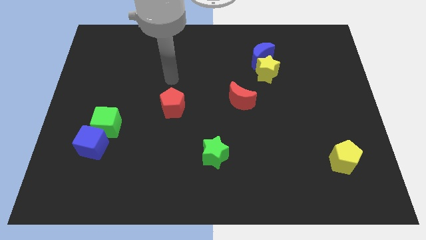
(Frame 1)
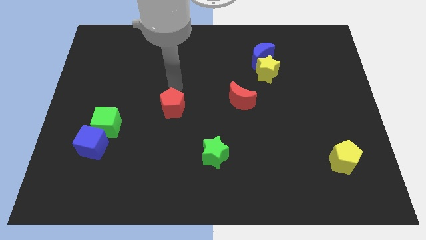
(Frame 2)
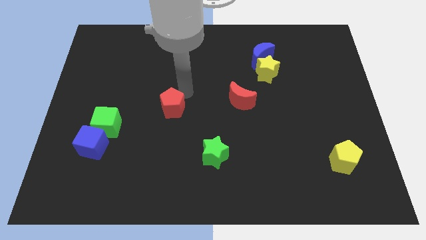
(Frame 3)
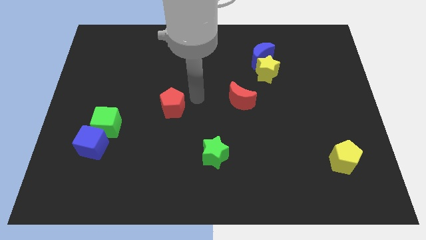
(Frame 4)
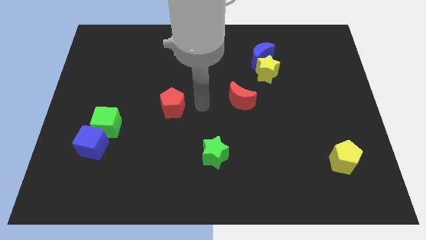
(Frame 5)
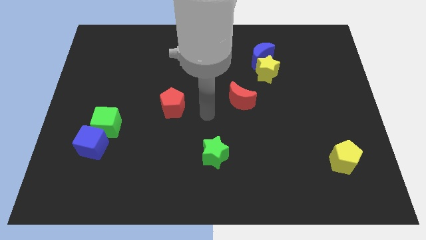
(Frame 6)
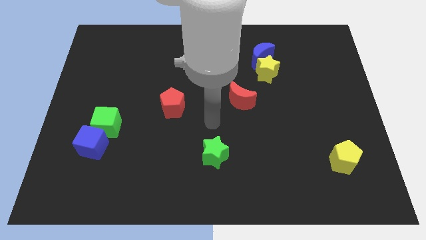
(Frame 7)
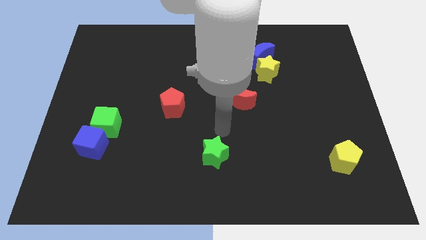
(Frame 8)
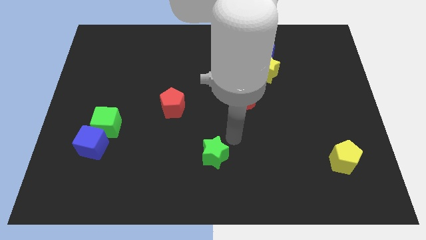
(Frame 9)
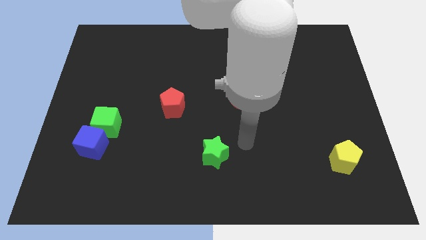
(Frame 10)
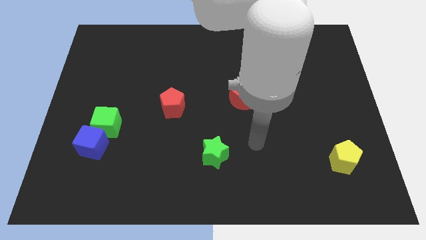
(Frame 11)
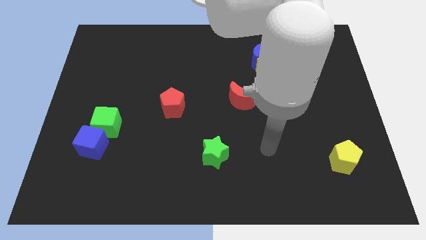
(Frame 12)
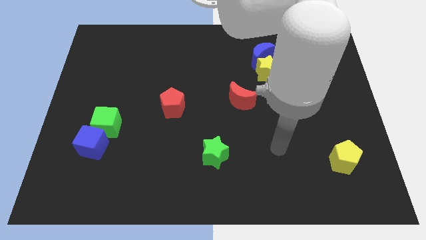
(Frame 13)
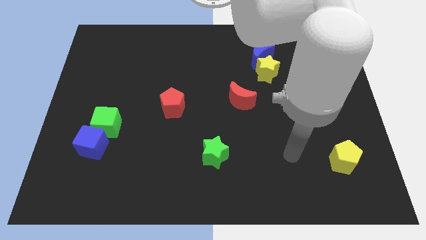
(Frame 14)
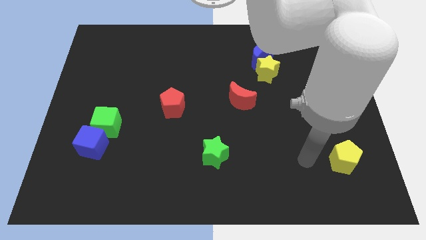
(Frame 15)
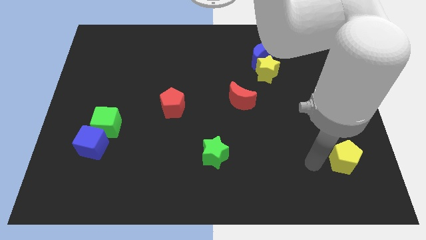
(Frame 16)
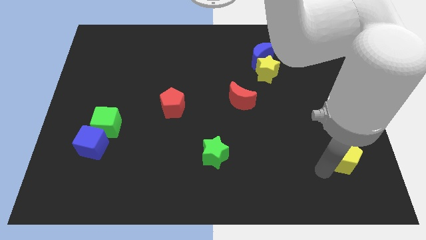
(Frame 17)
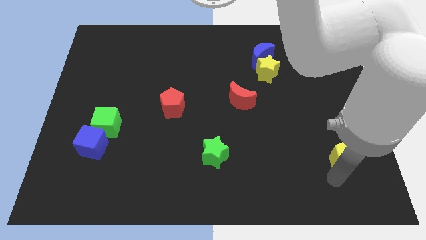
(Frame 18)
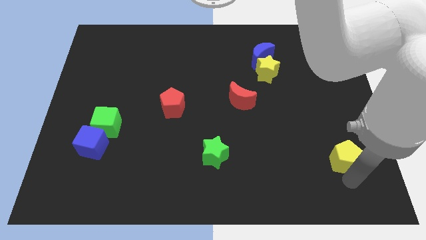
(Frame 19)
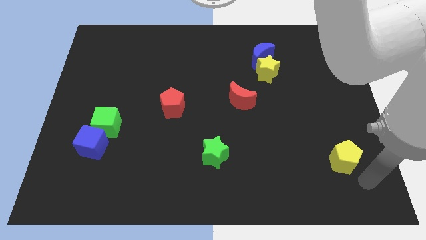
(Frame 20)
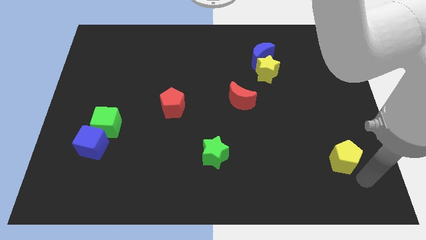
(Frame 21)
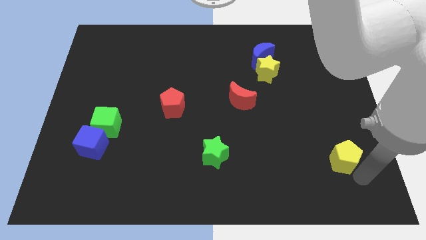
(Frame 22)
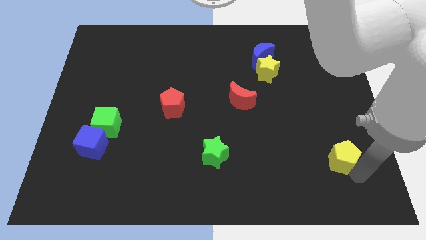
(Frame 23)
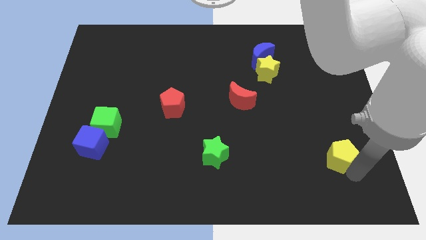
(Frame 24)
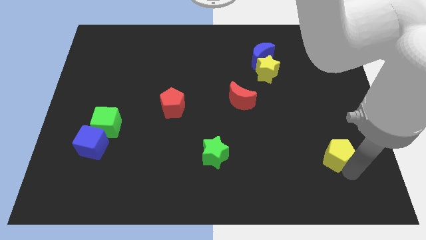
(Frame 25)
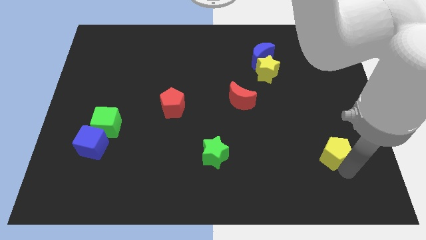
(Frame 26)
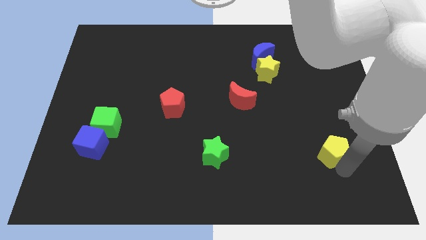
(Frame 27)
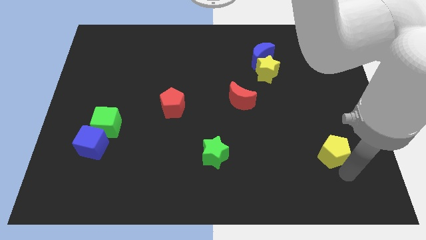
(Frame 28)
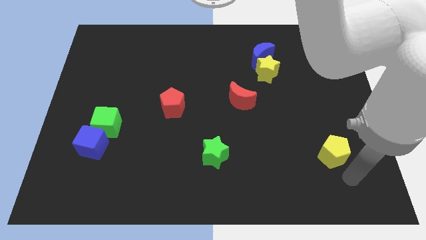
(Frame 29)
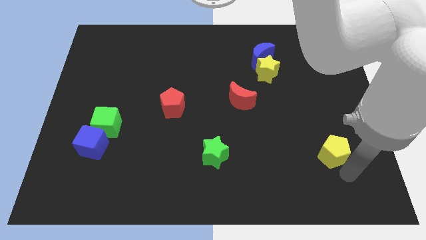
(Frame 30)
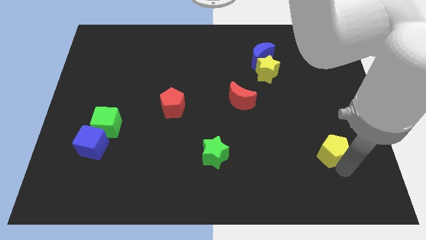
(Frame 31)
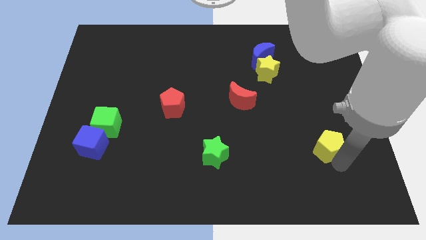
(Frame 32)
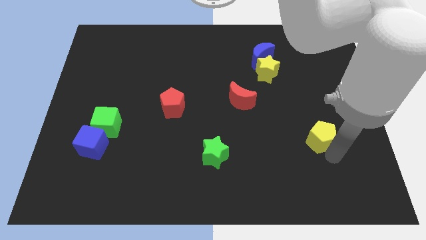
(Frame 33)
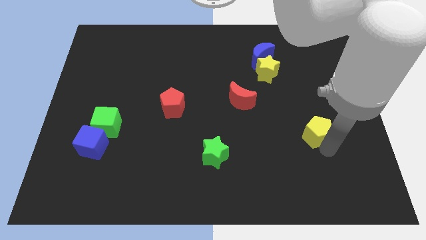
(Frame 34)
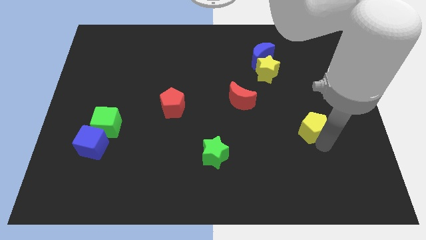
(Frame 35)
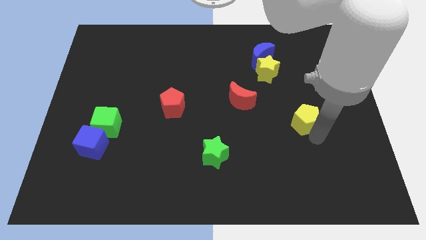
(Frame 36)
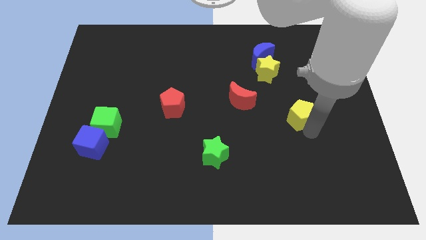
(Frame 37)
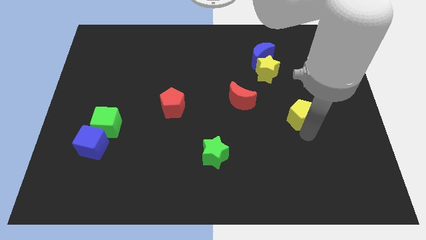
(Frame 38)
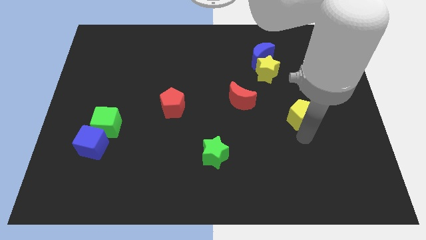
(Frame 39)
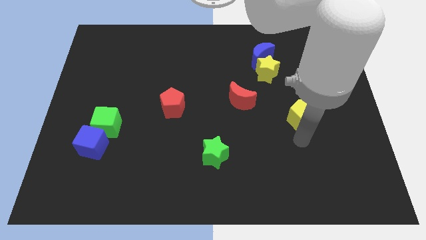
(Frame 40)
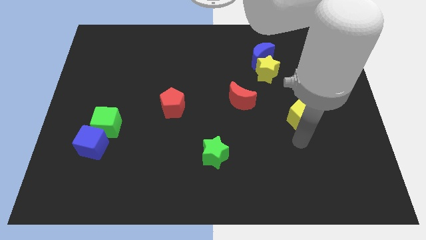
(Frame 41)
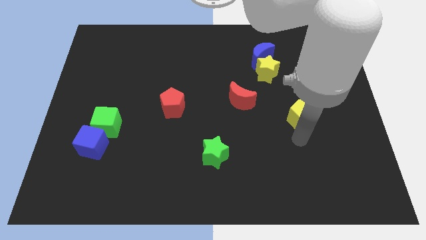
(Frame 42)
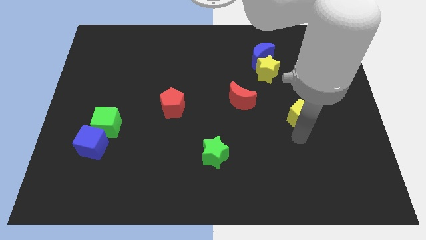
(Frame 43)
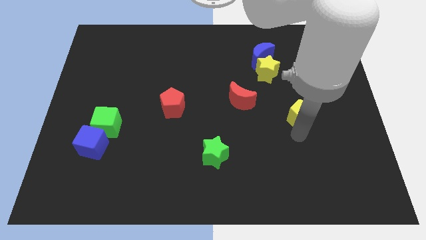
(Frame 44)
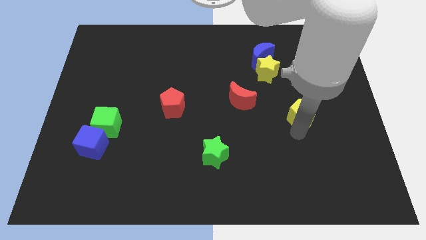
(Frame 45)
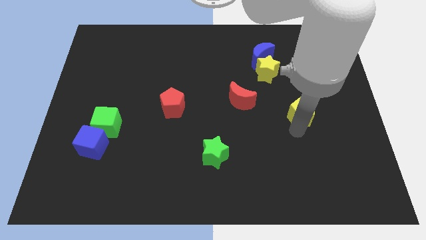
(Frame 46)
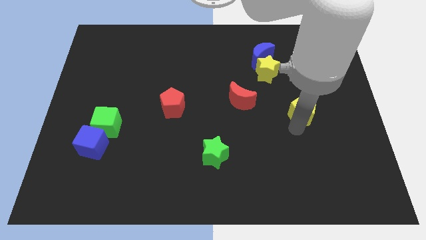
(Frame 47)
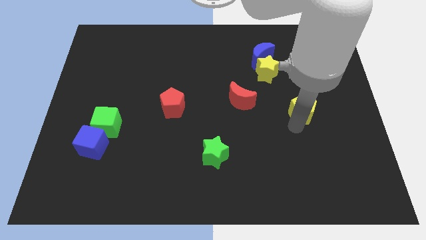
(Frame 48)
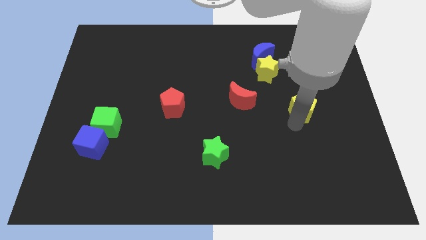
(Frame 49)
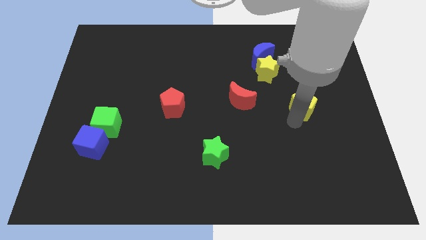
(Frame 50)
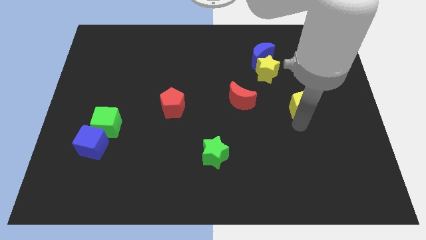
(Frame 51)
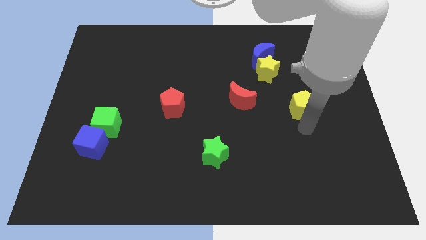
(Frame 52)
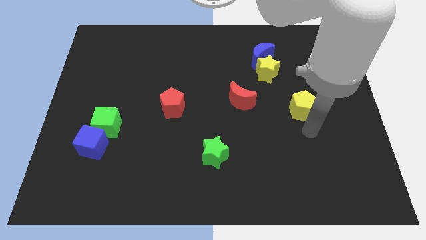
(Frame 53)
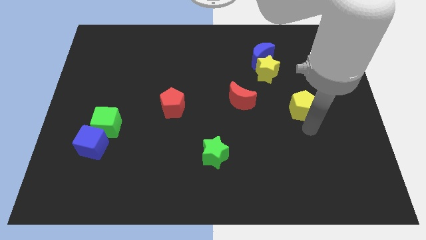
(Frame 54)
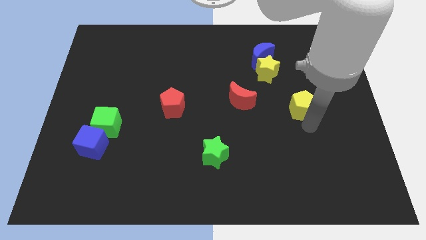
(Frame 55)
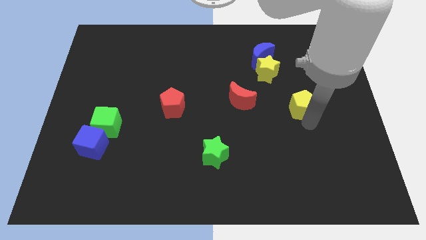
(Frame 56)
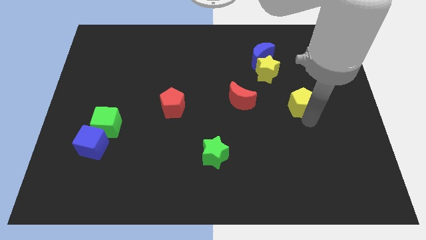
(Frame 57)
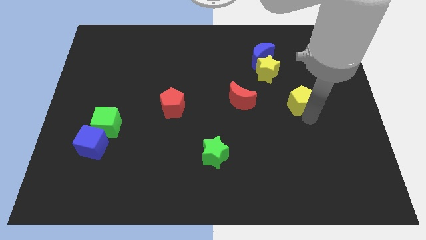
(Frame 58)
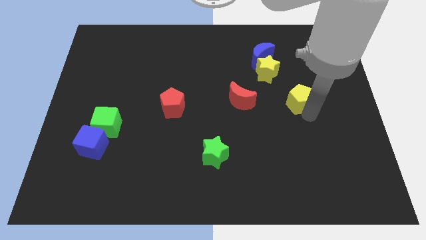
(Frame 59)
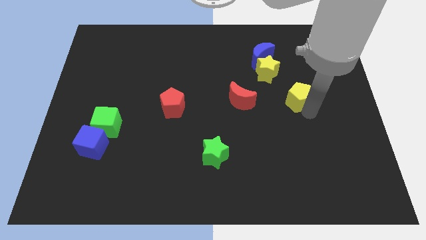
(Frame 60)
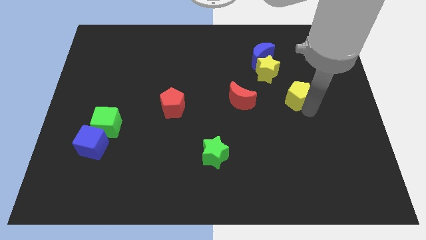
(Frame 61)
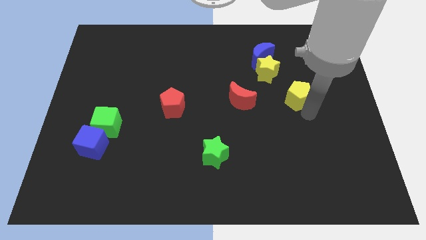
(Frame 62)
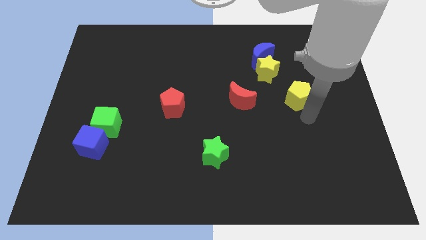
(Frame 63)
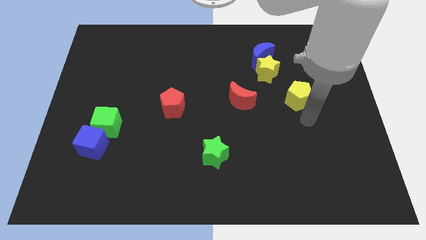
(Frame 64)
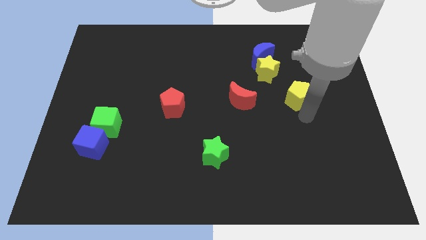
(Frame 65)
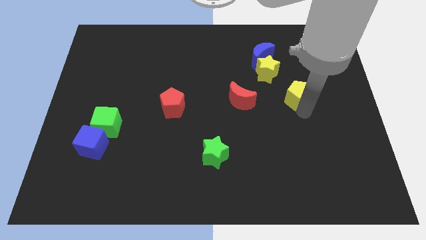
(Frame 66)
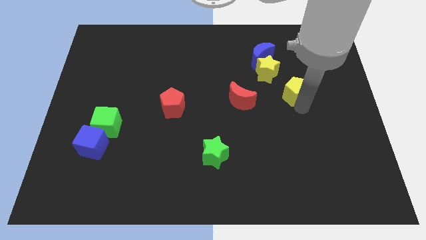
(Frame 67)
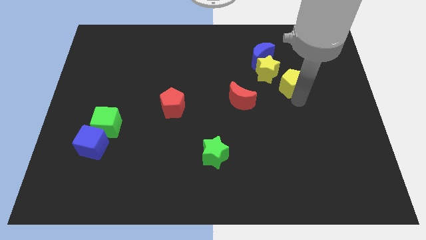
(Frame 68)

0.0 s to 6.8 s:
slide the yellow pentagon diagonally down and to the right of the blue moon
